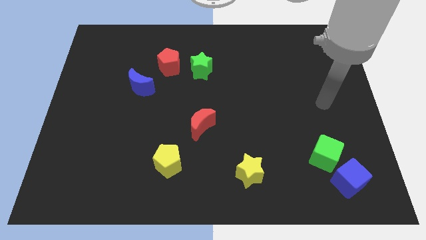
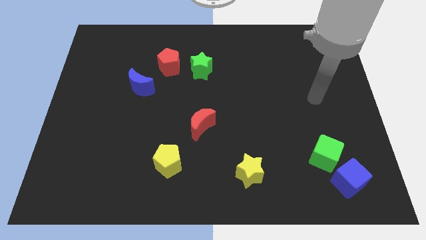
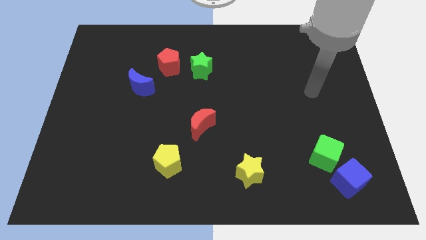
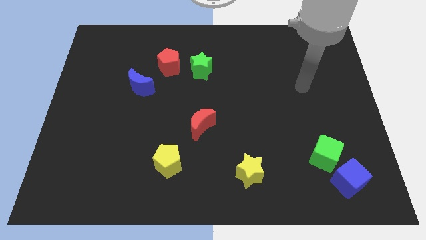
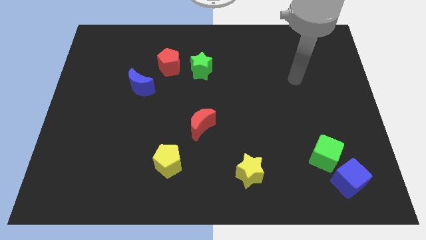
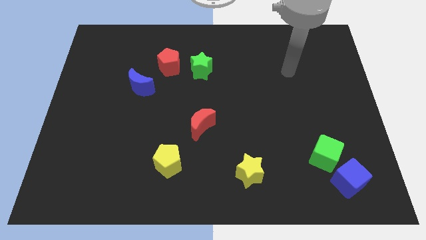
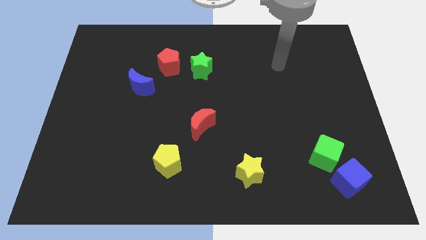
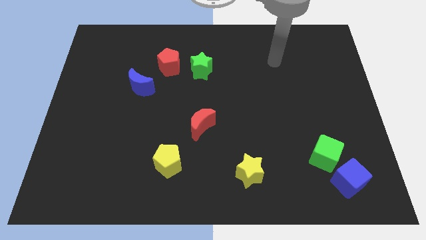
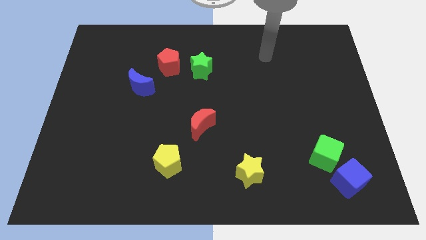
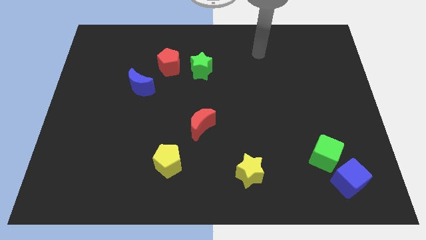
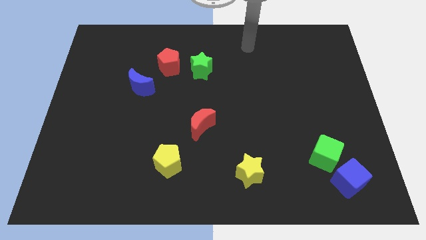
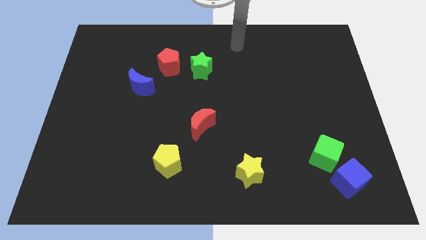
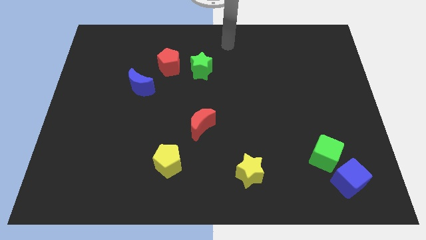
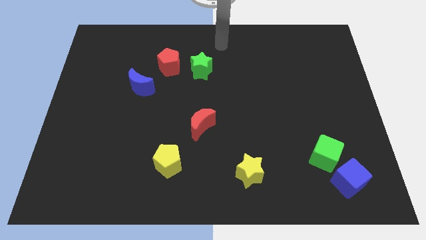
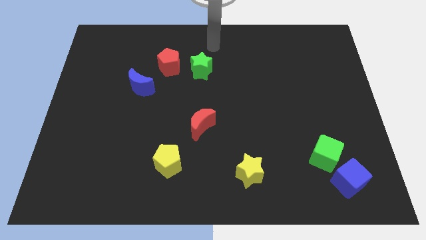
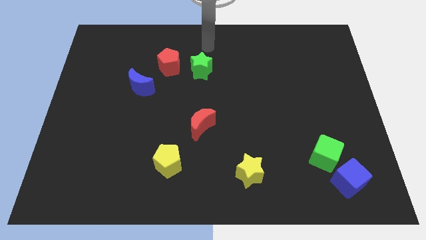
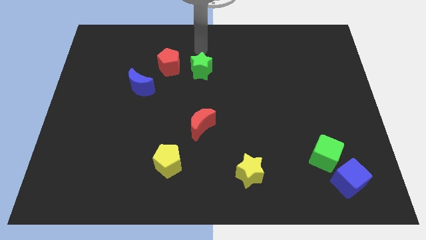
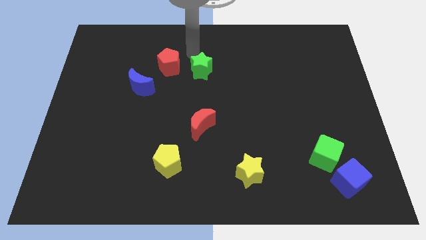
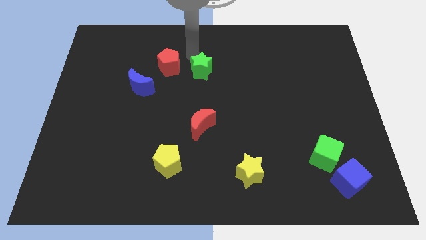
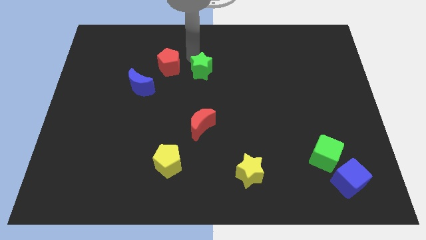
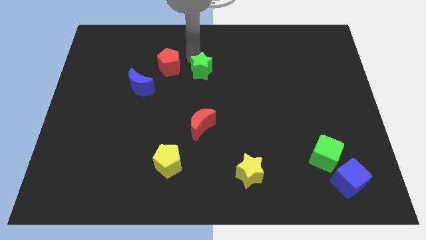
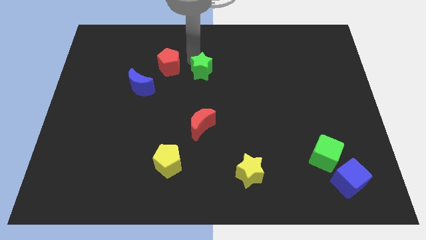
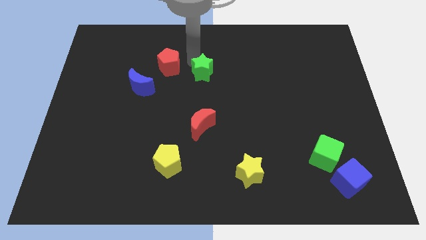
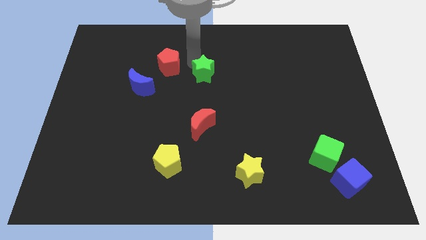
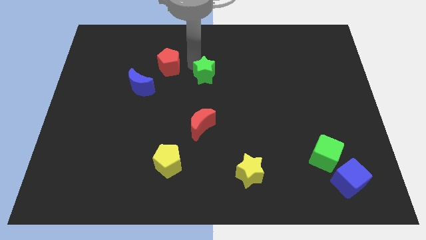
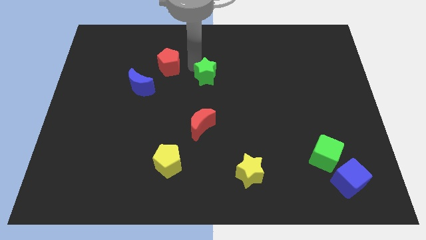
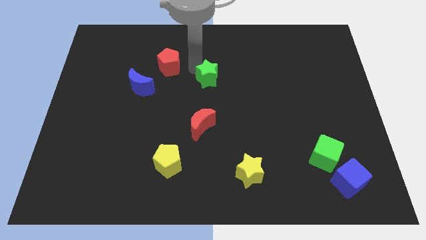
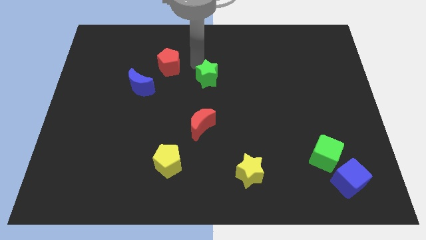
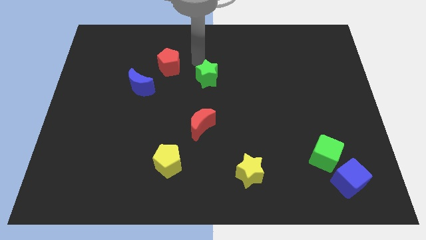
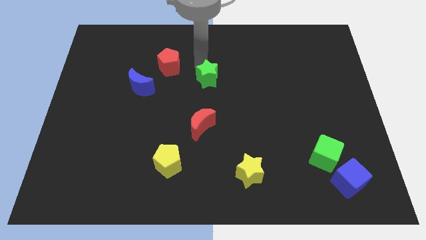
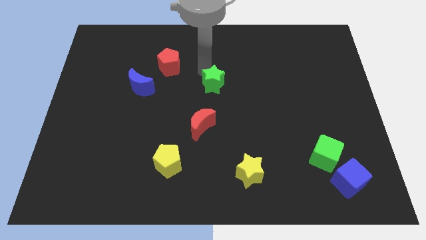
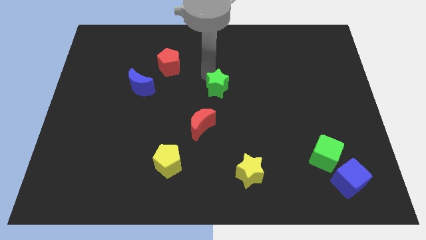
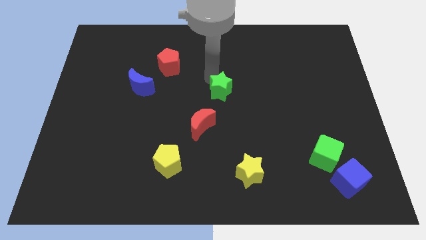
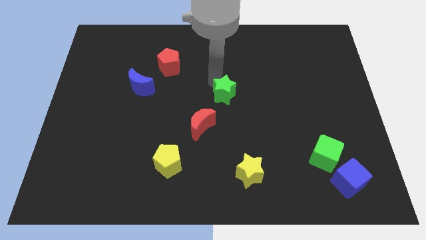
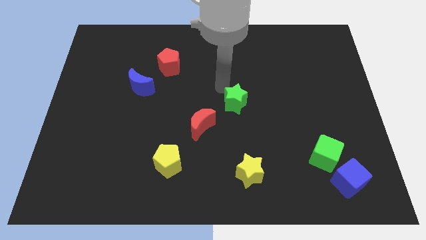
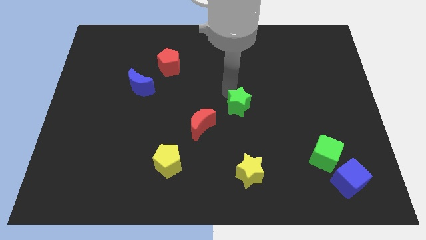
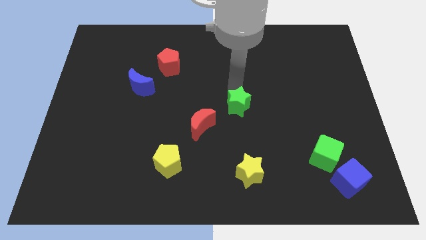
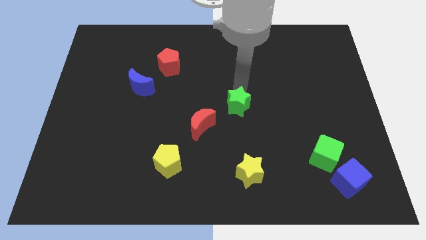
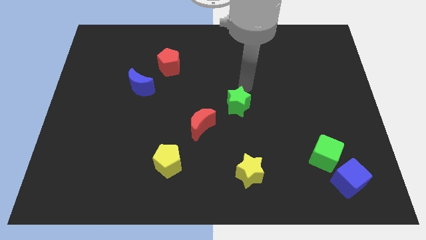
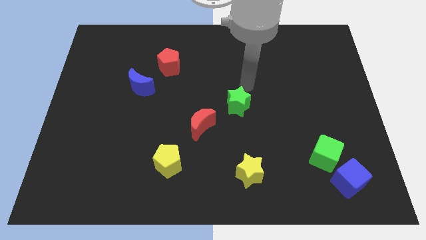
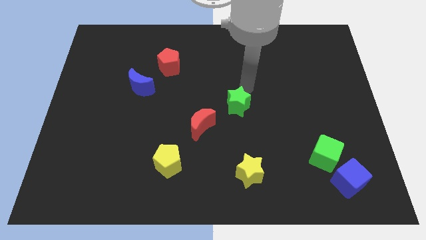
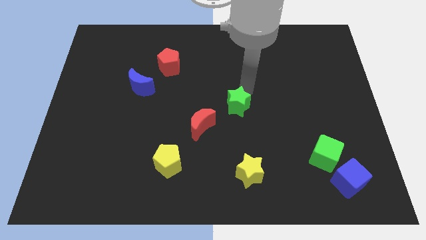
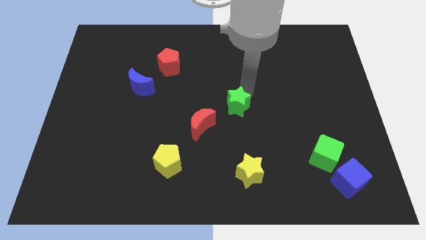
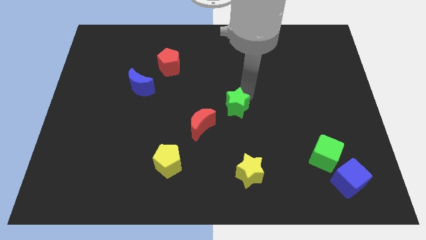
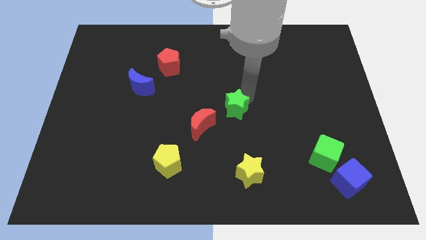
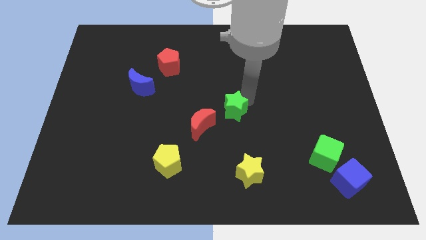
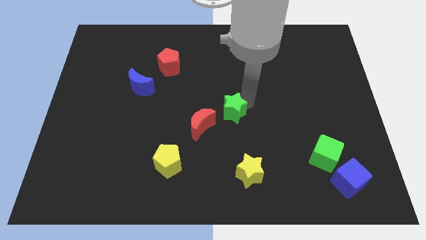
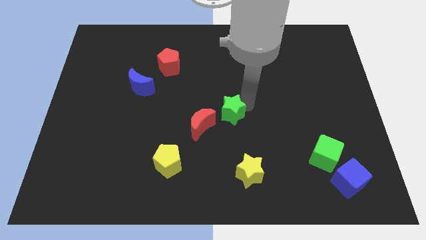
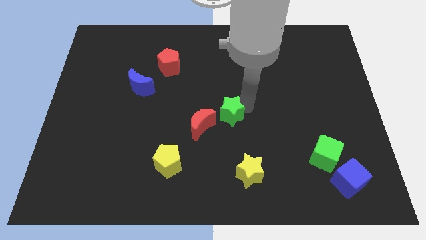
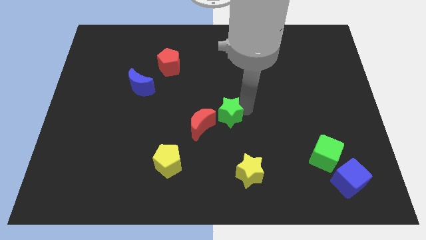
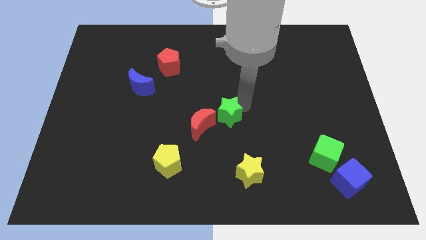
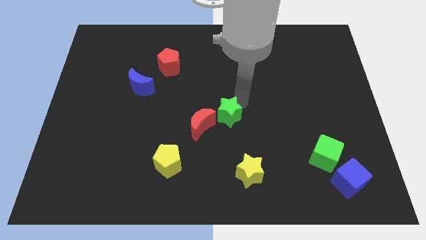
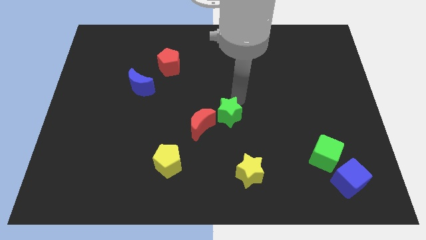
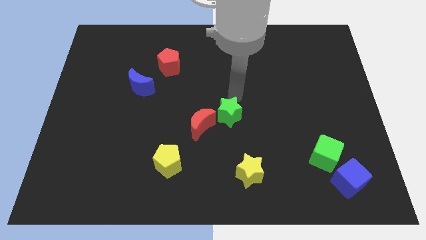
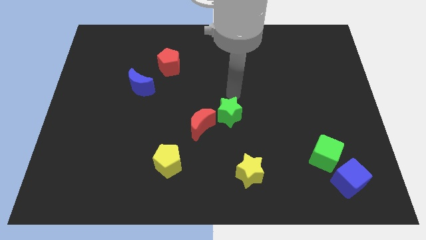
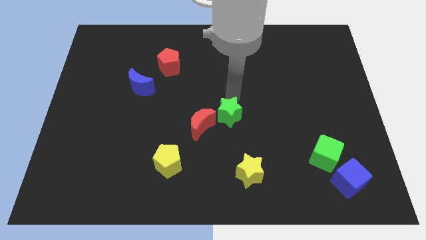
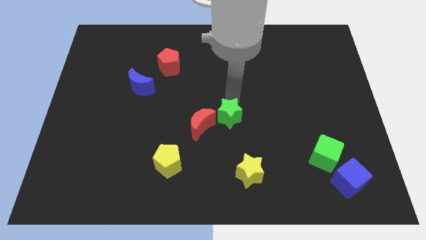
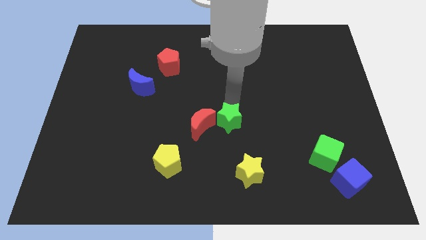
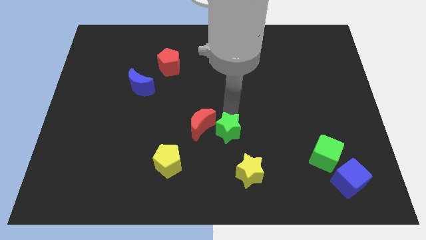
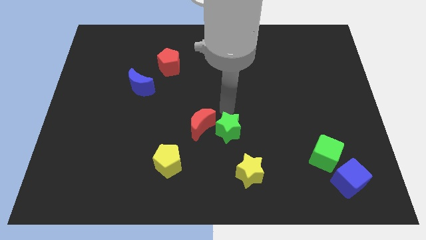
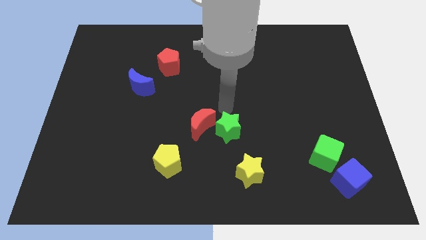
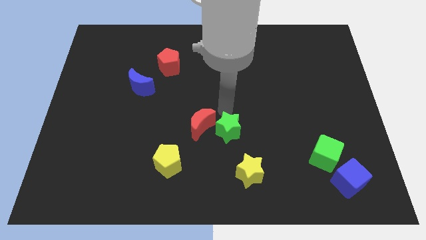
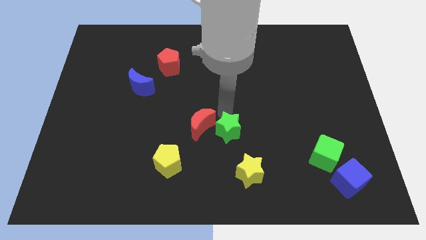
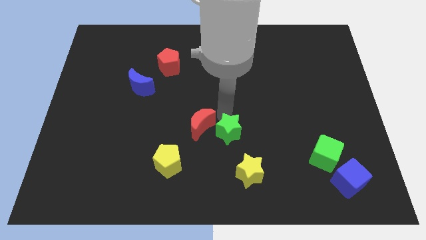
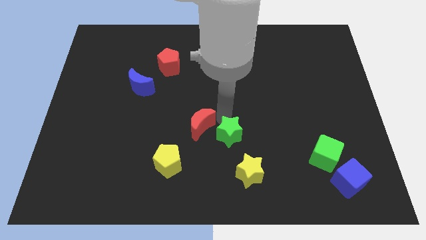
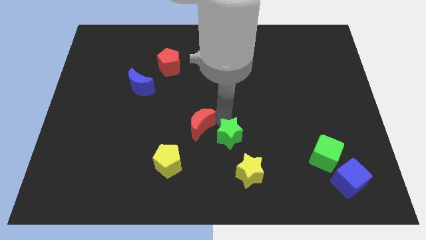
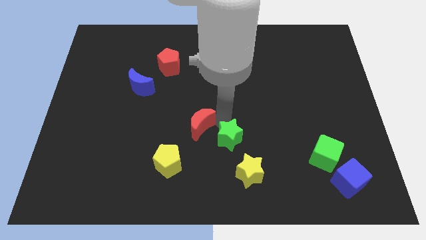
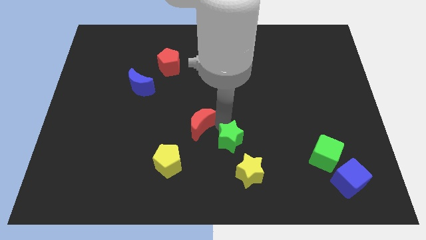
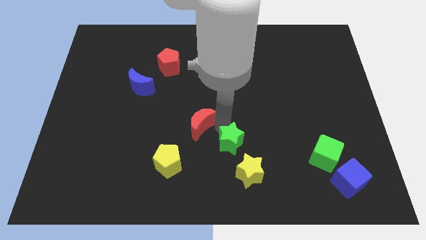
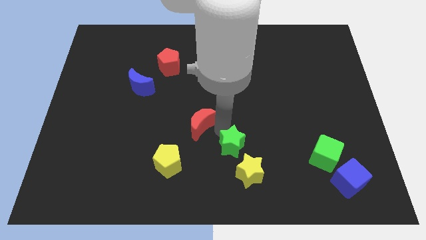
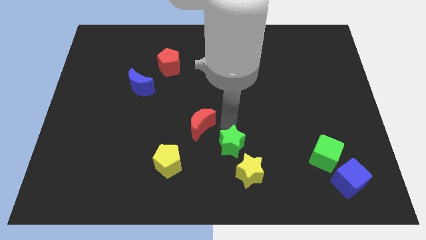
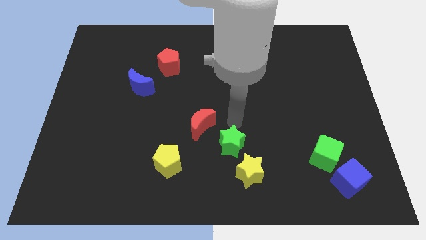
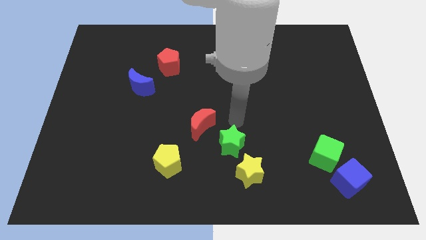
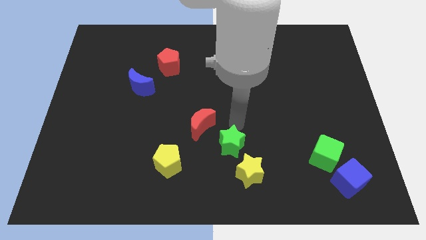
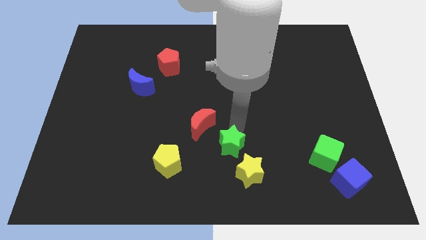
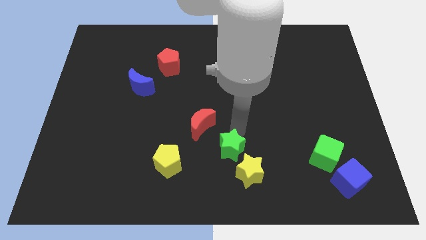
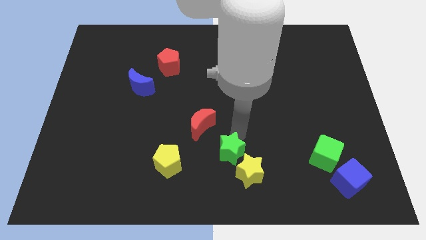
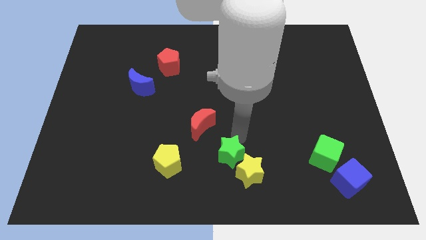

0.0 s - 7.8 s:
move the green star to the bottom
